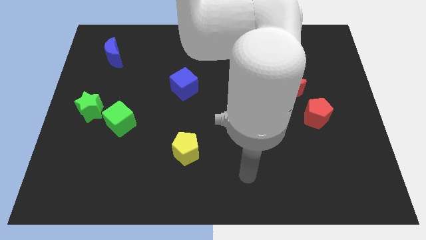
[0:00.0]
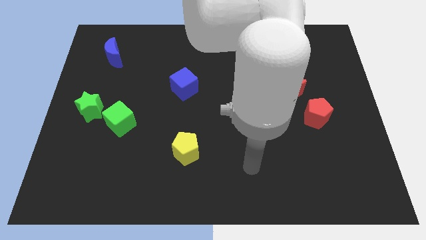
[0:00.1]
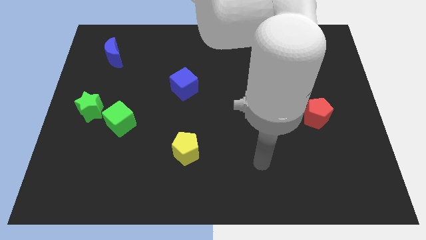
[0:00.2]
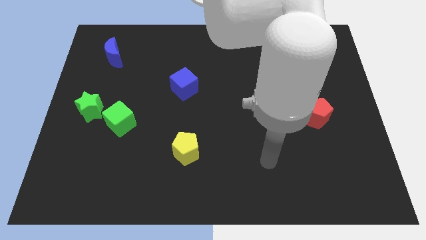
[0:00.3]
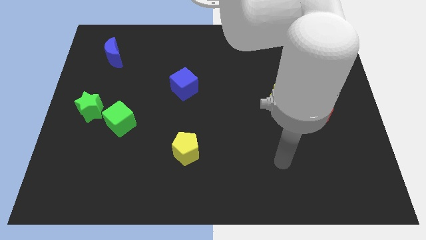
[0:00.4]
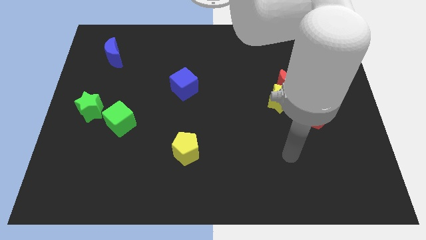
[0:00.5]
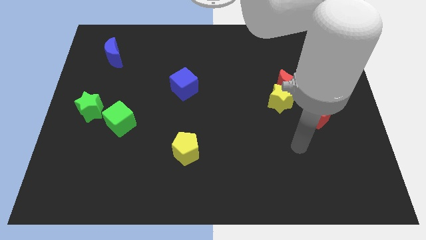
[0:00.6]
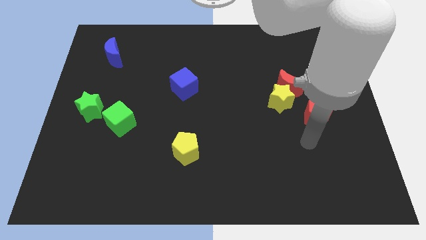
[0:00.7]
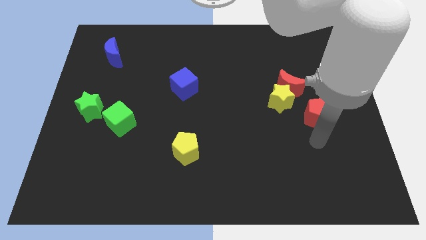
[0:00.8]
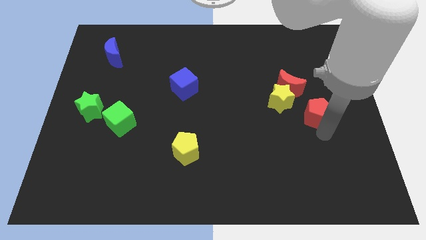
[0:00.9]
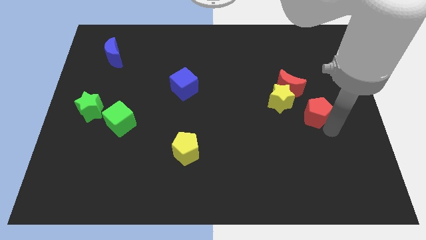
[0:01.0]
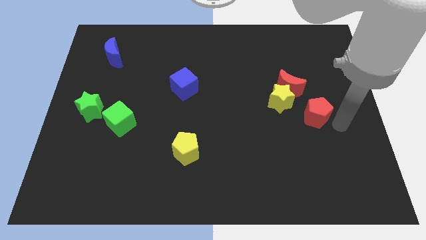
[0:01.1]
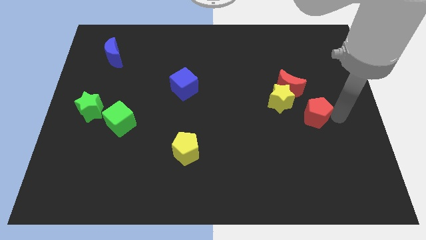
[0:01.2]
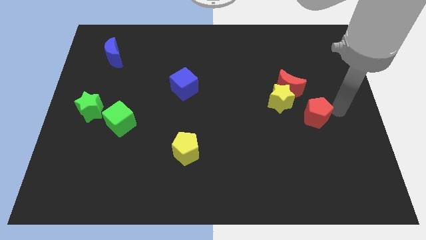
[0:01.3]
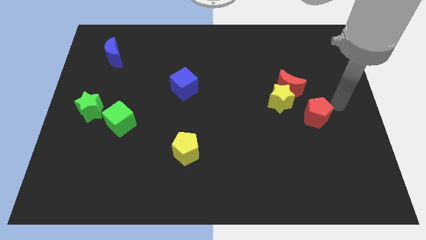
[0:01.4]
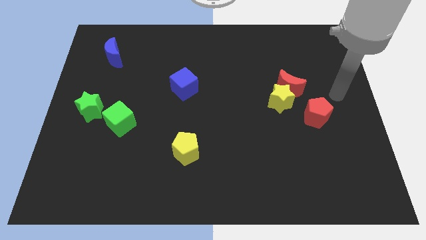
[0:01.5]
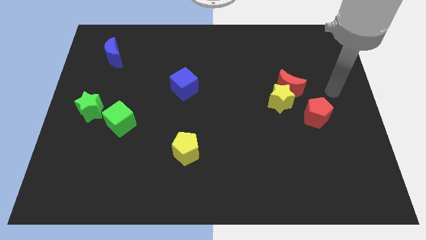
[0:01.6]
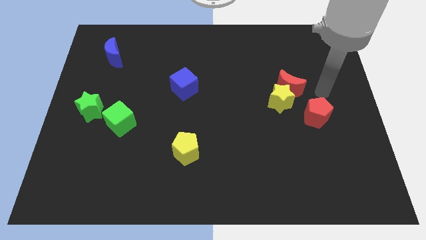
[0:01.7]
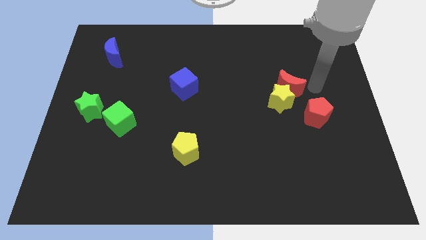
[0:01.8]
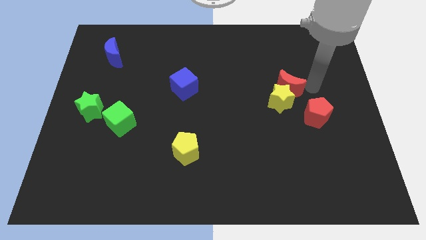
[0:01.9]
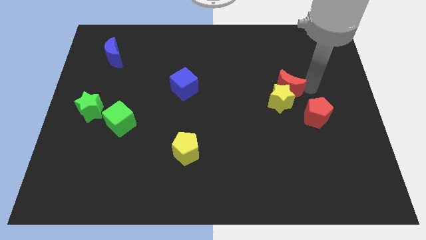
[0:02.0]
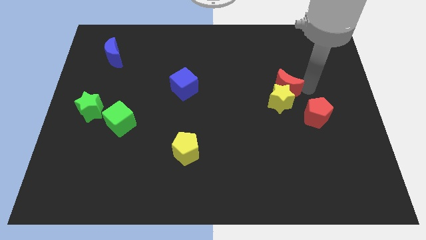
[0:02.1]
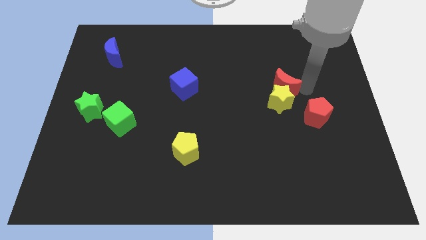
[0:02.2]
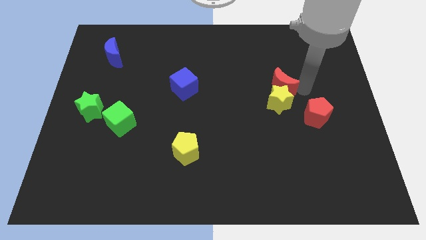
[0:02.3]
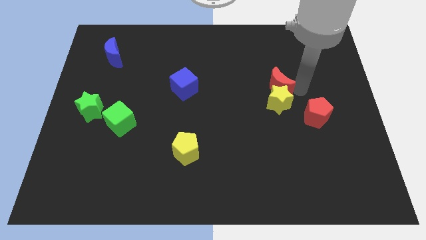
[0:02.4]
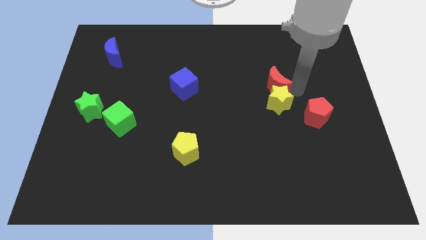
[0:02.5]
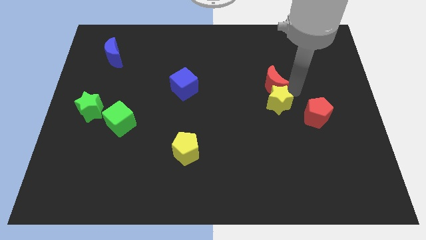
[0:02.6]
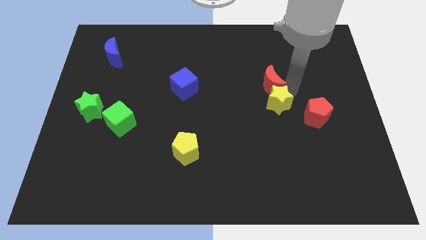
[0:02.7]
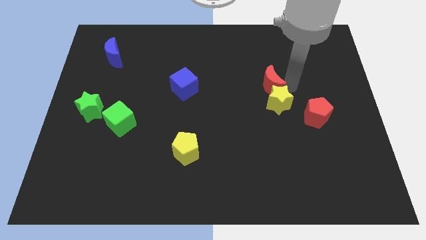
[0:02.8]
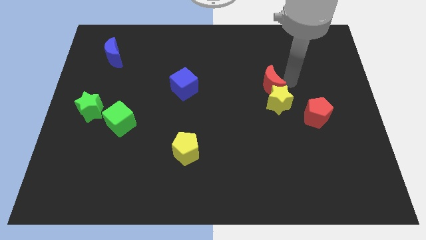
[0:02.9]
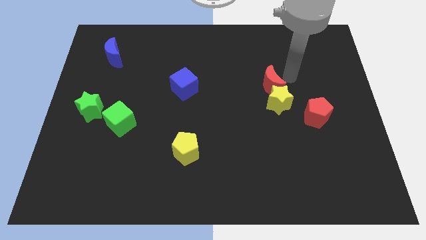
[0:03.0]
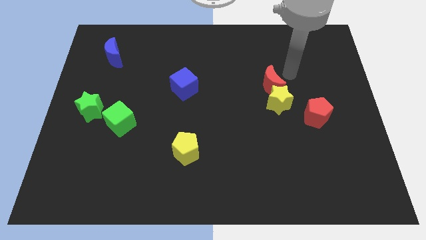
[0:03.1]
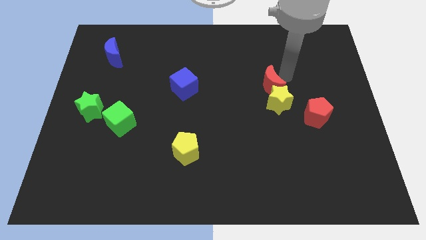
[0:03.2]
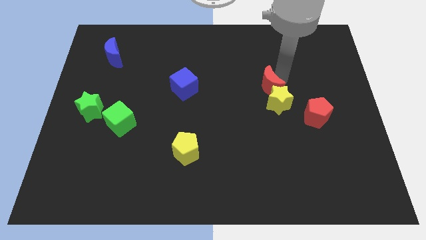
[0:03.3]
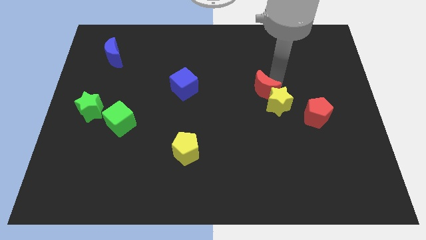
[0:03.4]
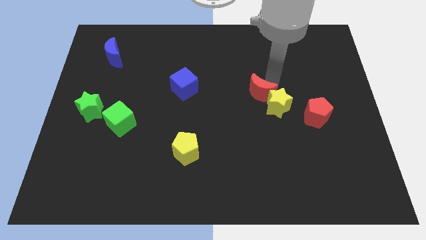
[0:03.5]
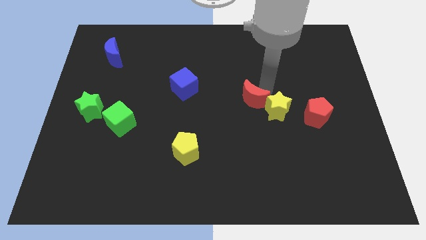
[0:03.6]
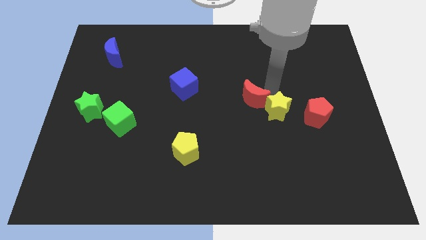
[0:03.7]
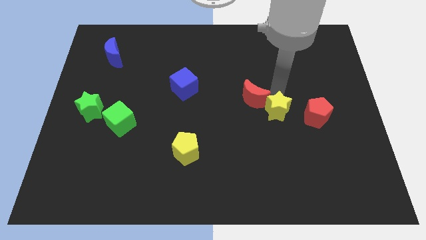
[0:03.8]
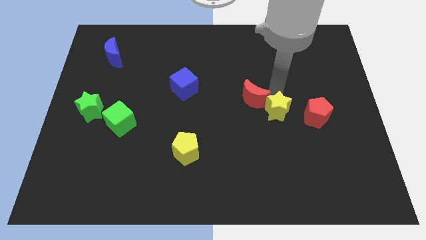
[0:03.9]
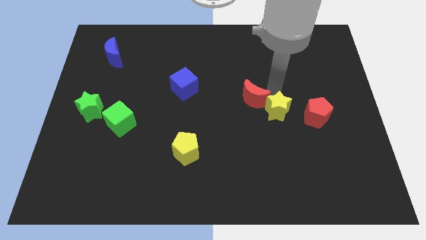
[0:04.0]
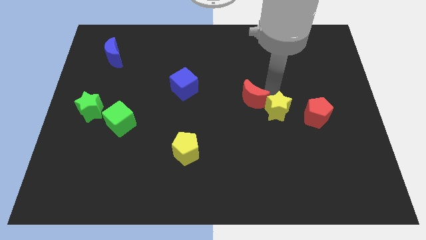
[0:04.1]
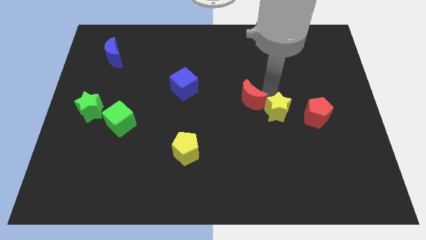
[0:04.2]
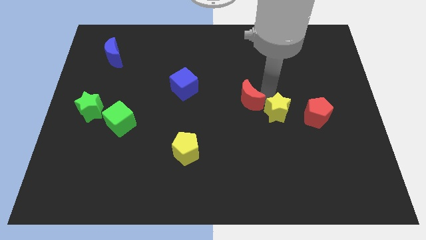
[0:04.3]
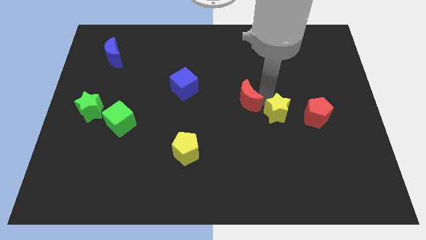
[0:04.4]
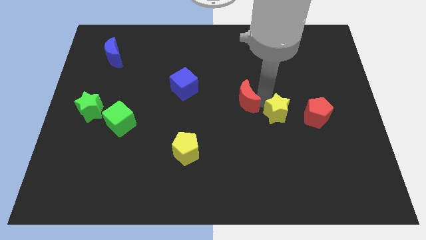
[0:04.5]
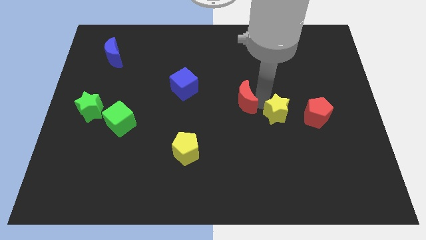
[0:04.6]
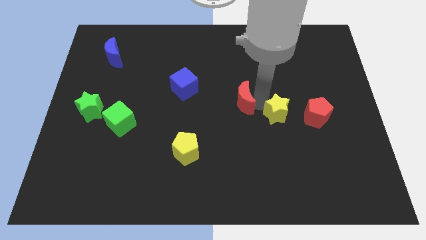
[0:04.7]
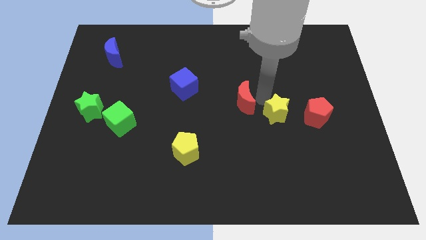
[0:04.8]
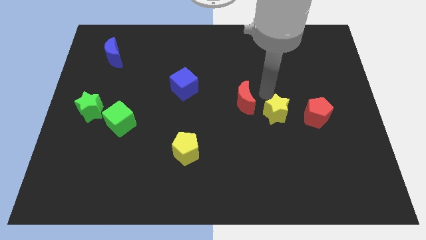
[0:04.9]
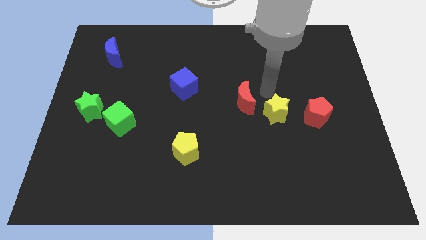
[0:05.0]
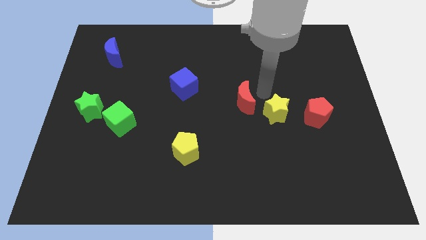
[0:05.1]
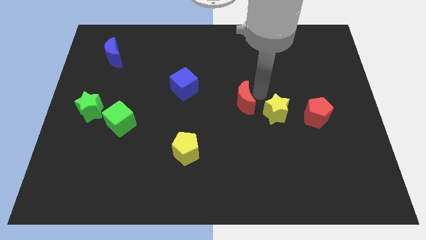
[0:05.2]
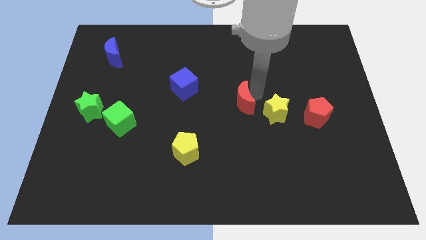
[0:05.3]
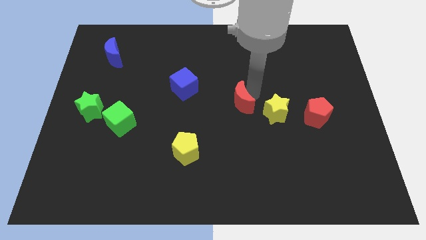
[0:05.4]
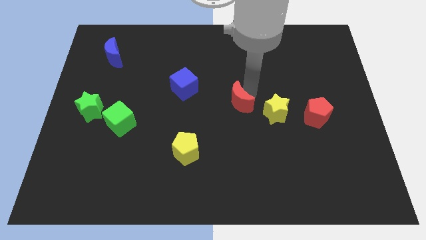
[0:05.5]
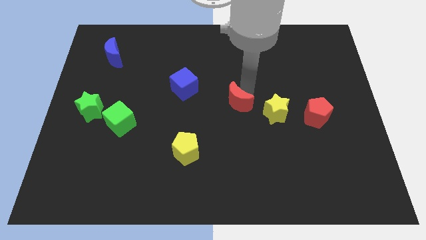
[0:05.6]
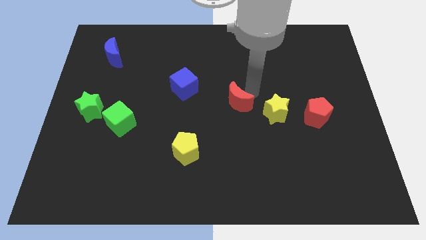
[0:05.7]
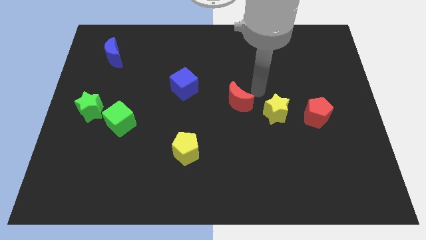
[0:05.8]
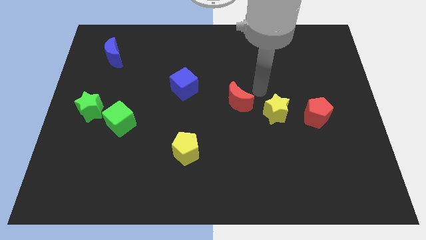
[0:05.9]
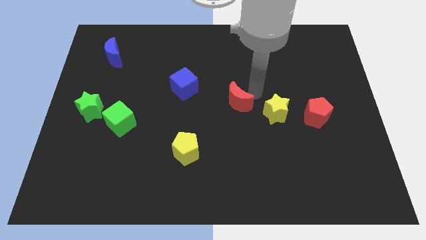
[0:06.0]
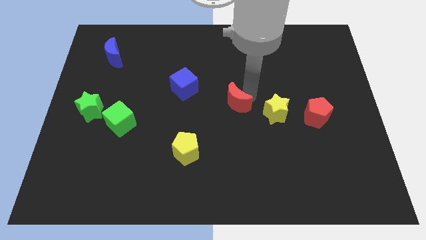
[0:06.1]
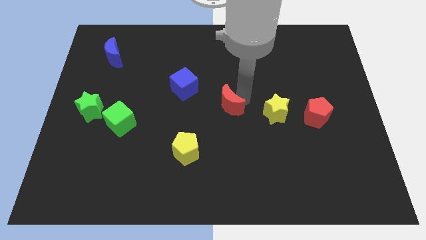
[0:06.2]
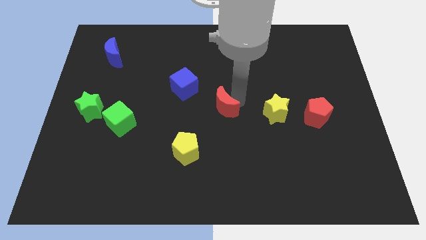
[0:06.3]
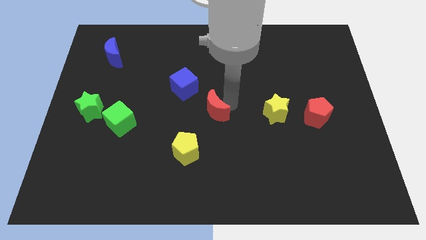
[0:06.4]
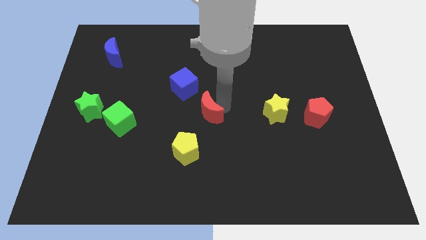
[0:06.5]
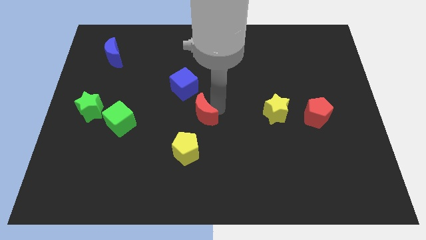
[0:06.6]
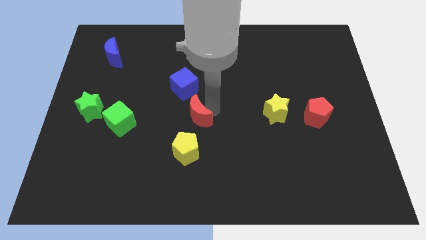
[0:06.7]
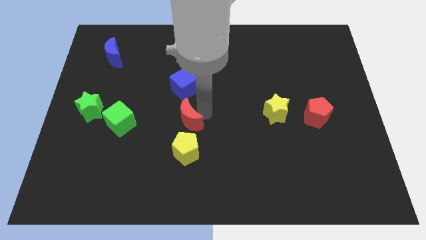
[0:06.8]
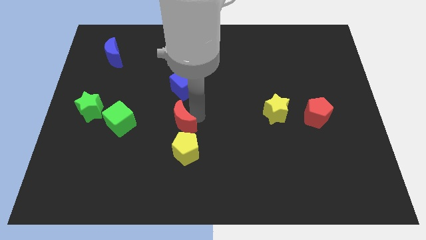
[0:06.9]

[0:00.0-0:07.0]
slide the red moon to the top left side of the yellow pentagon
